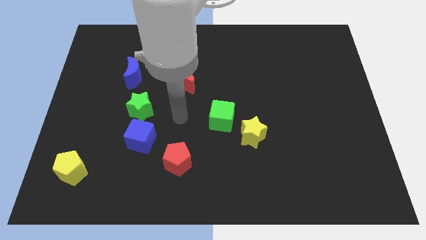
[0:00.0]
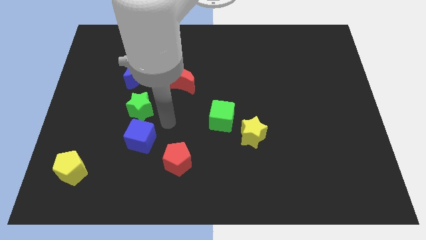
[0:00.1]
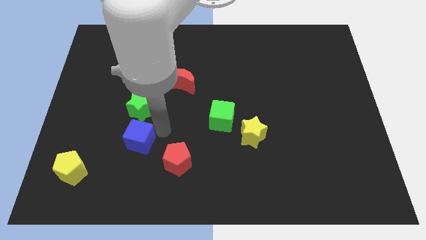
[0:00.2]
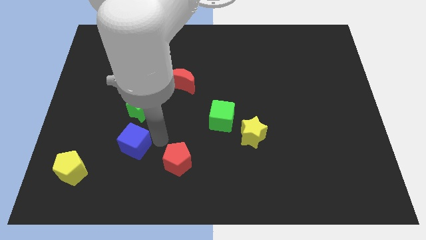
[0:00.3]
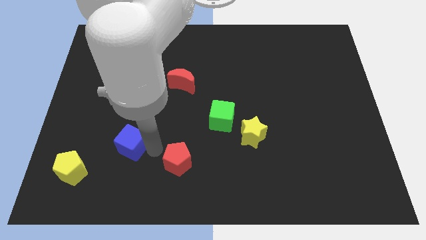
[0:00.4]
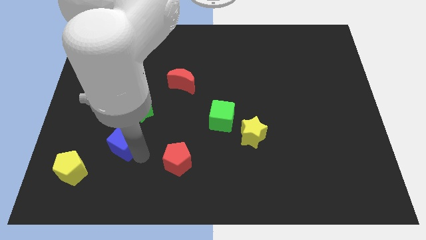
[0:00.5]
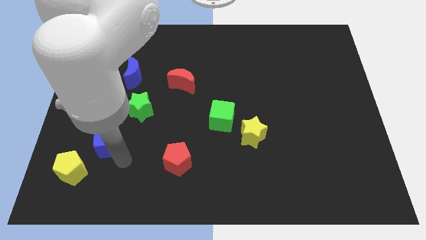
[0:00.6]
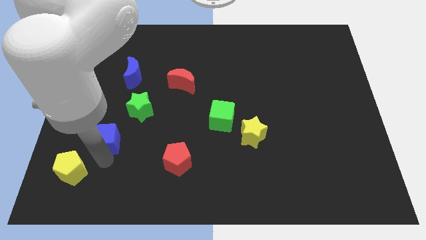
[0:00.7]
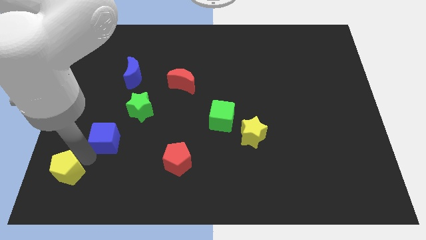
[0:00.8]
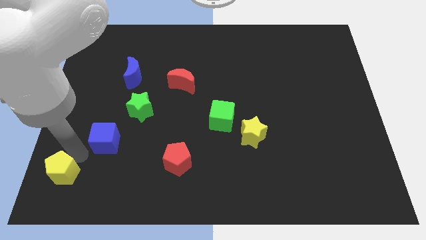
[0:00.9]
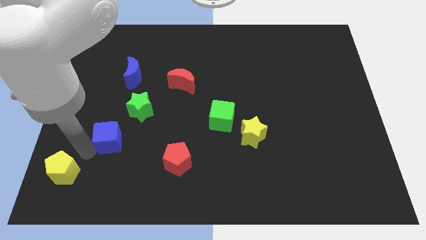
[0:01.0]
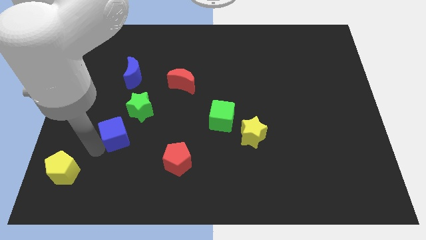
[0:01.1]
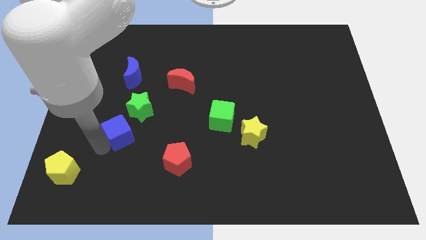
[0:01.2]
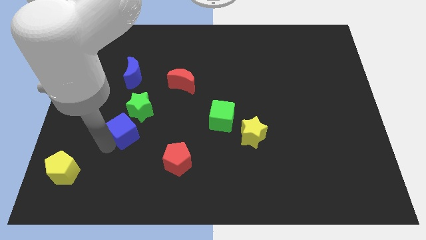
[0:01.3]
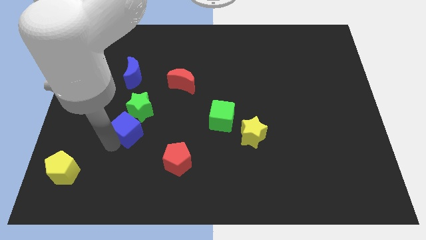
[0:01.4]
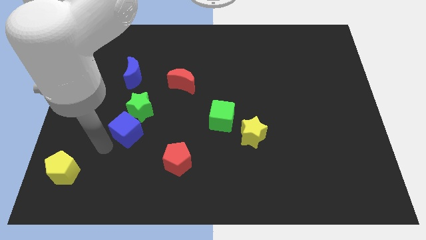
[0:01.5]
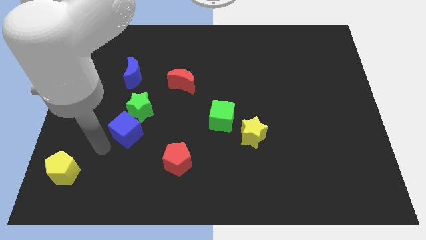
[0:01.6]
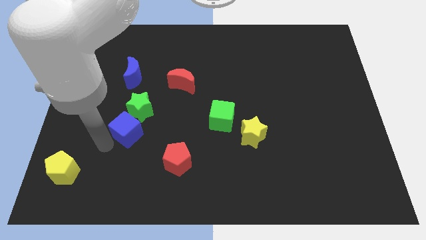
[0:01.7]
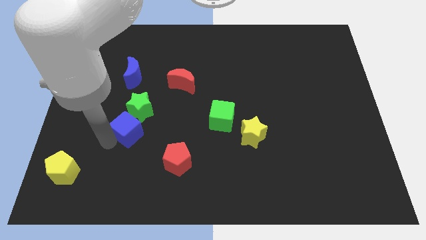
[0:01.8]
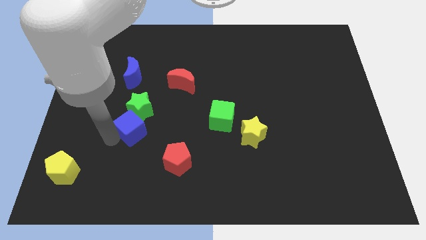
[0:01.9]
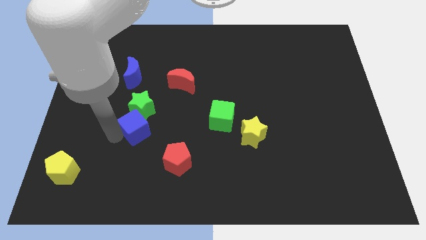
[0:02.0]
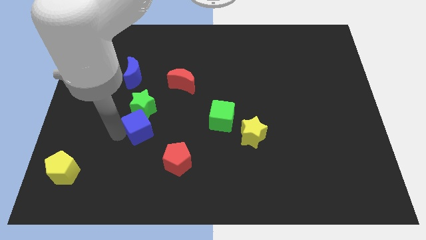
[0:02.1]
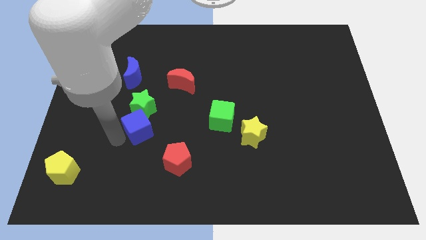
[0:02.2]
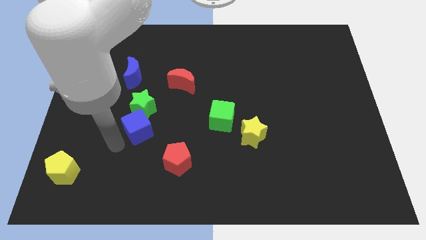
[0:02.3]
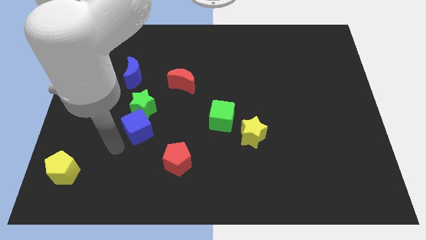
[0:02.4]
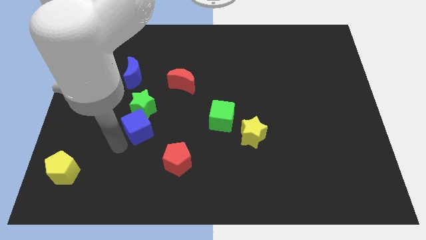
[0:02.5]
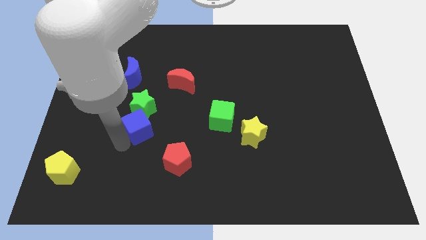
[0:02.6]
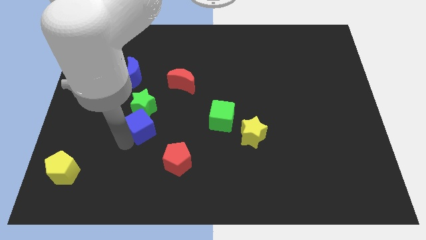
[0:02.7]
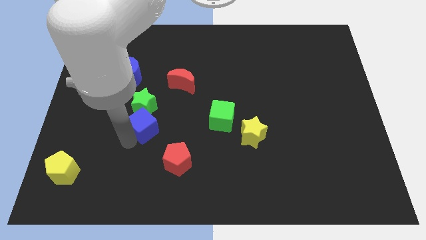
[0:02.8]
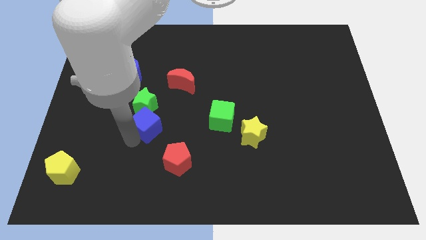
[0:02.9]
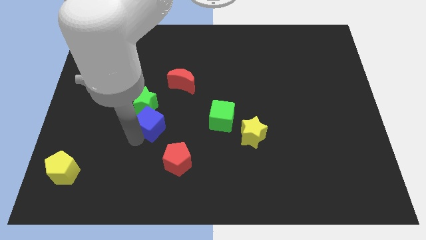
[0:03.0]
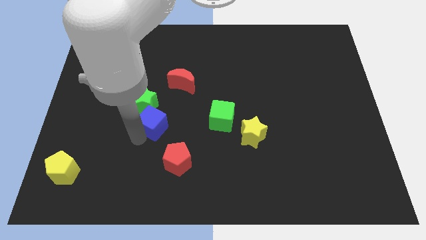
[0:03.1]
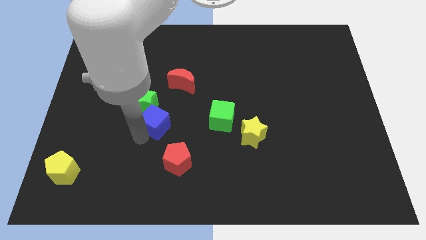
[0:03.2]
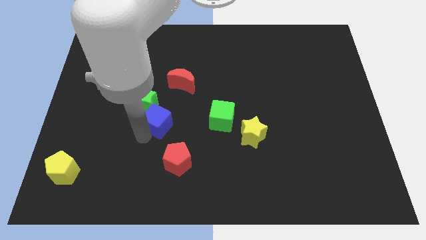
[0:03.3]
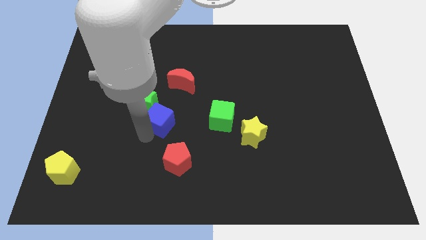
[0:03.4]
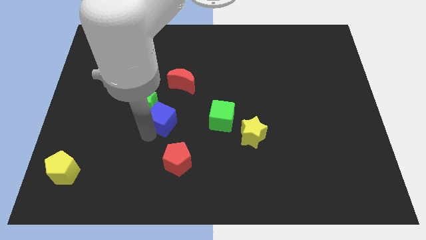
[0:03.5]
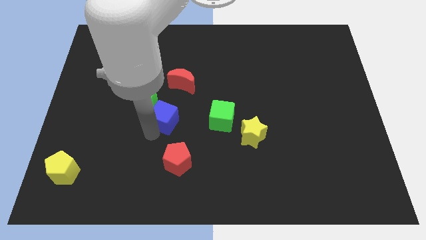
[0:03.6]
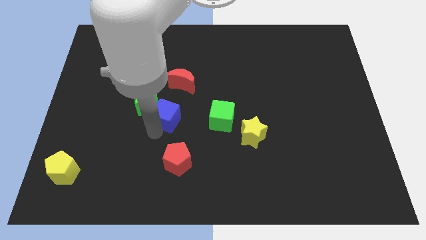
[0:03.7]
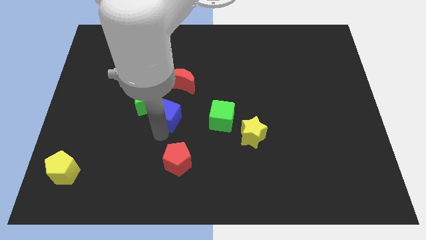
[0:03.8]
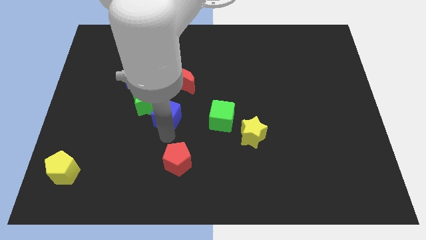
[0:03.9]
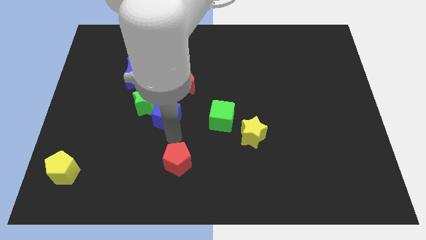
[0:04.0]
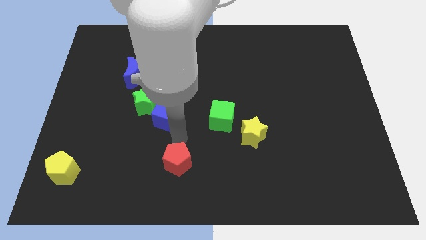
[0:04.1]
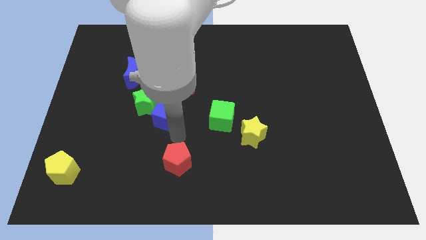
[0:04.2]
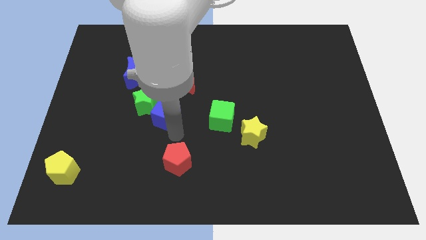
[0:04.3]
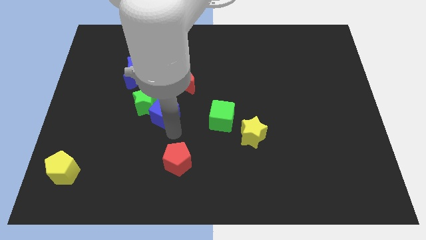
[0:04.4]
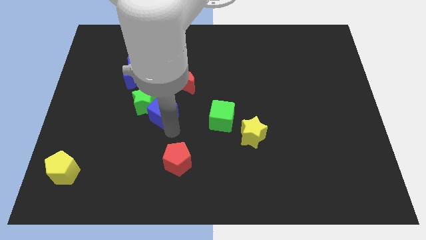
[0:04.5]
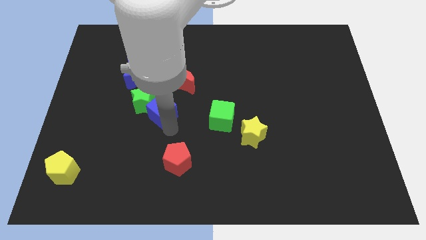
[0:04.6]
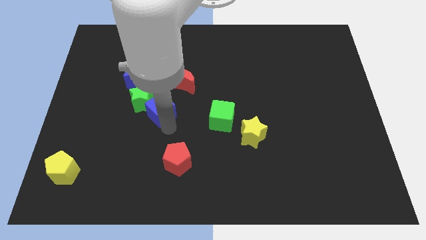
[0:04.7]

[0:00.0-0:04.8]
slightly push the blue cube up

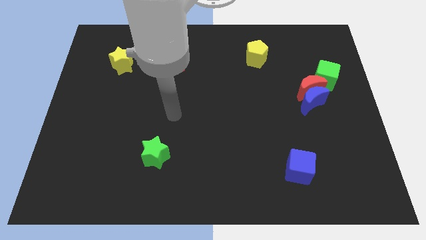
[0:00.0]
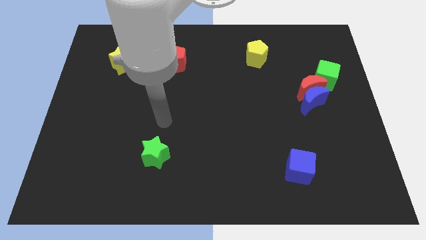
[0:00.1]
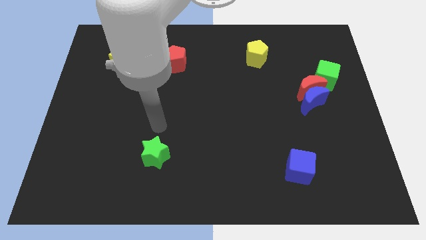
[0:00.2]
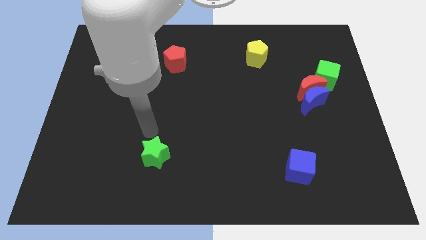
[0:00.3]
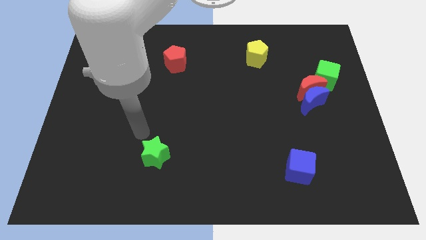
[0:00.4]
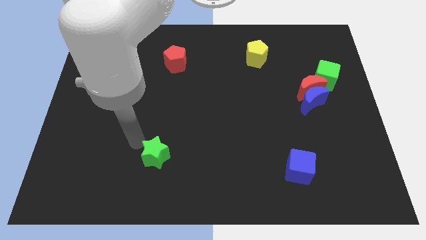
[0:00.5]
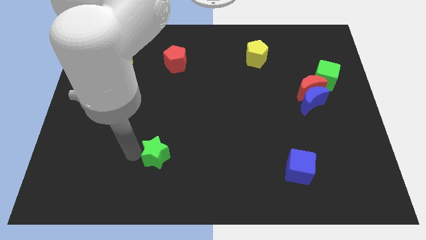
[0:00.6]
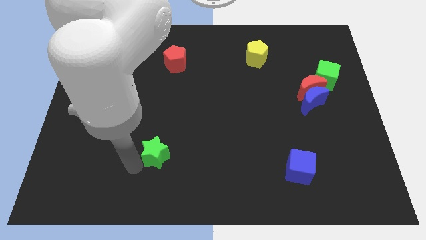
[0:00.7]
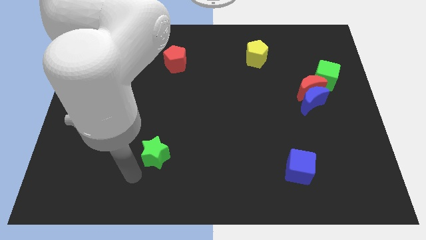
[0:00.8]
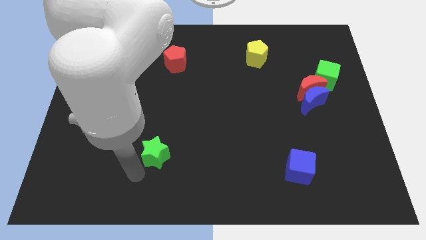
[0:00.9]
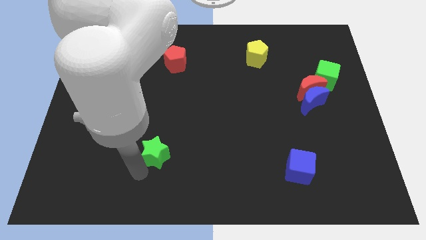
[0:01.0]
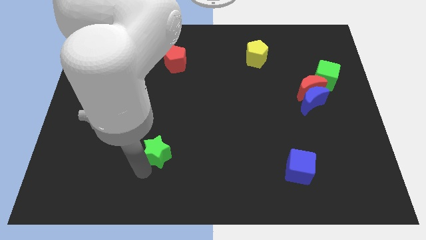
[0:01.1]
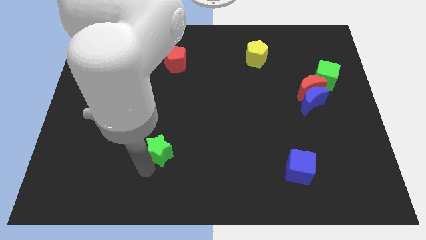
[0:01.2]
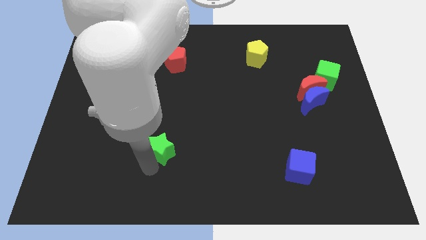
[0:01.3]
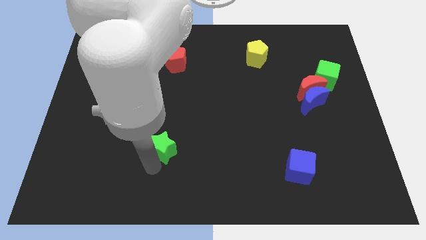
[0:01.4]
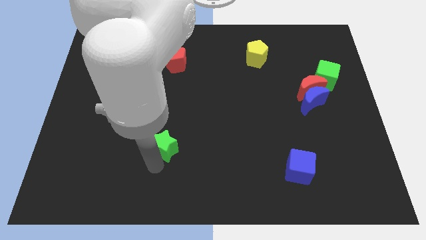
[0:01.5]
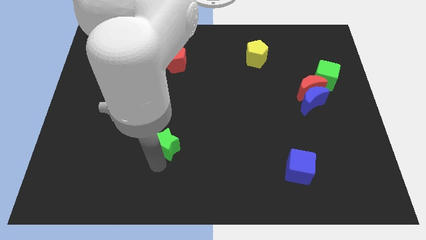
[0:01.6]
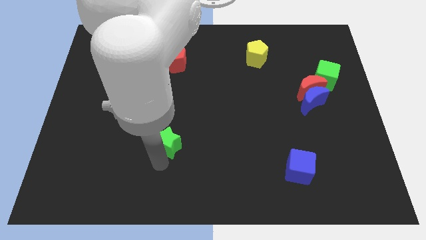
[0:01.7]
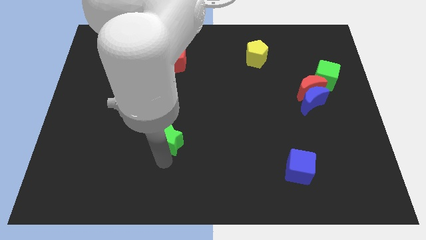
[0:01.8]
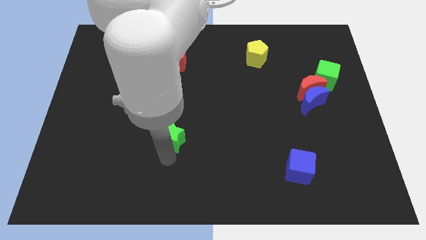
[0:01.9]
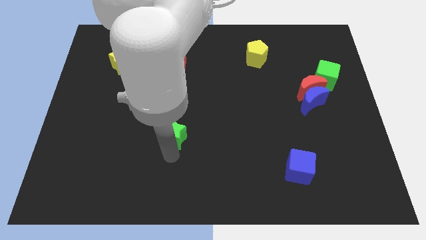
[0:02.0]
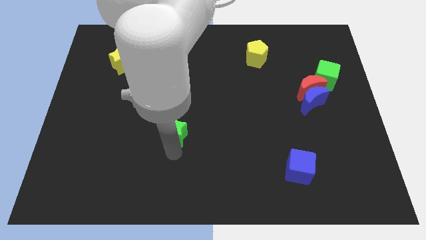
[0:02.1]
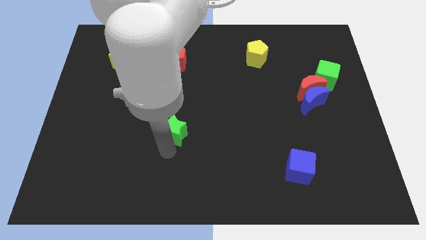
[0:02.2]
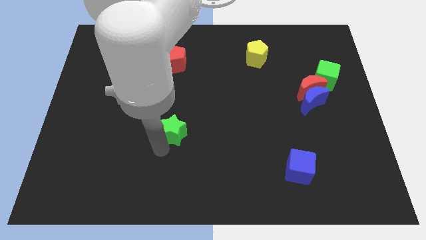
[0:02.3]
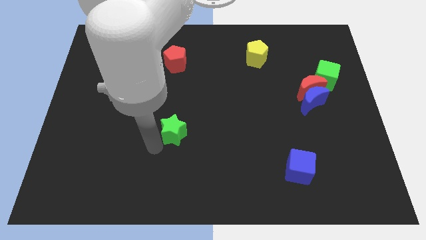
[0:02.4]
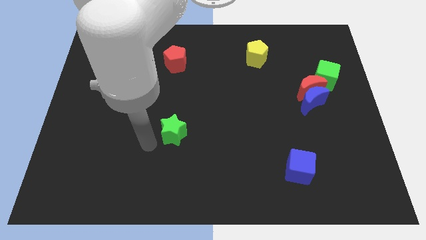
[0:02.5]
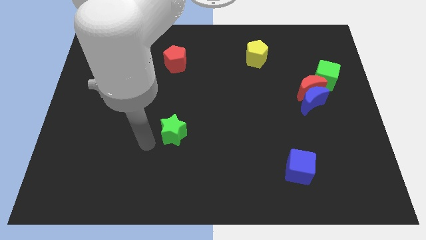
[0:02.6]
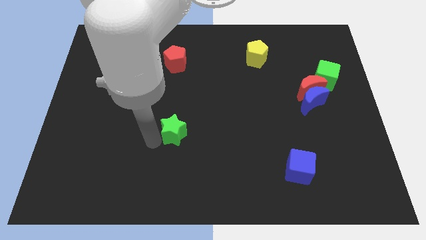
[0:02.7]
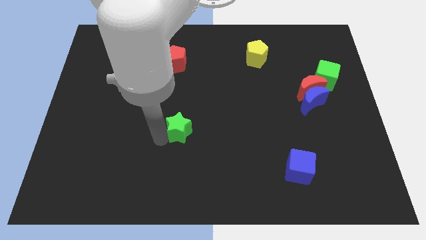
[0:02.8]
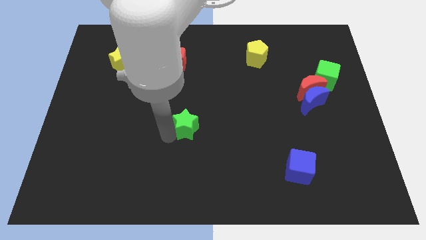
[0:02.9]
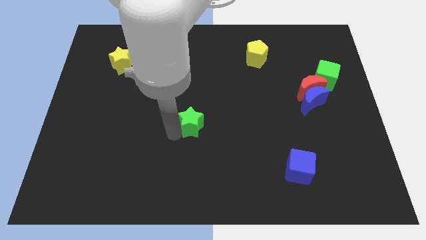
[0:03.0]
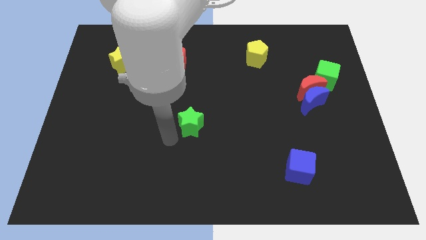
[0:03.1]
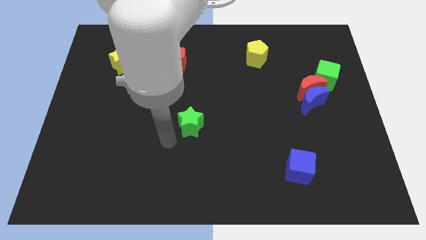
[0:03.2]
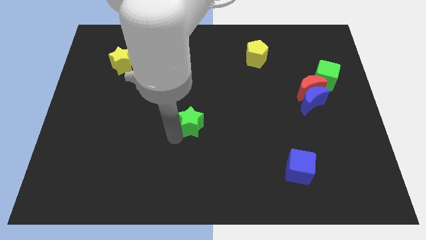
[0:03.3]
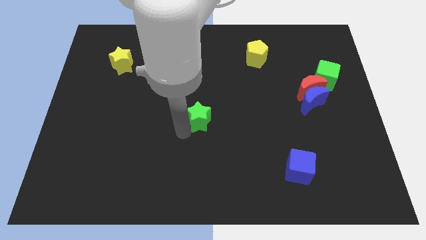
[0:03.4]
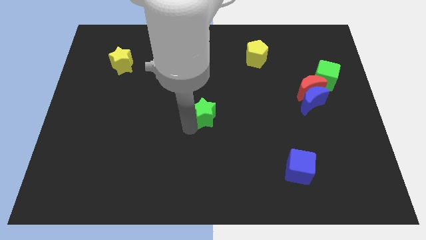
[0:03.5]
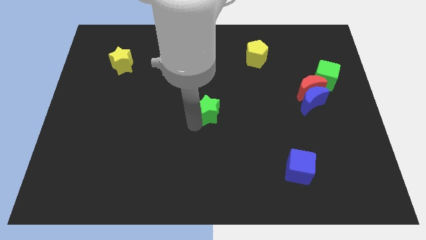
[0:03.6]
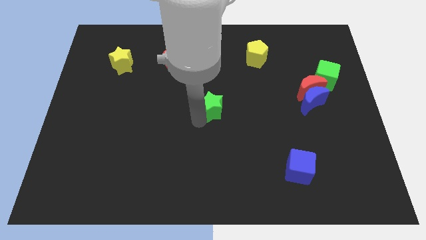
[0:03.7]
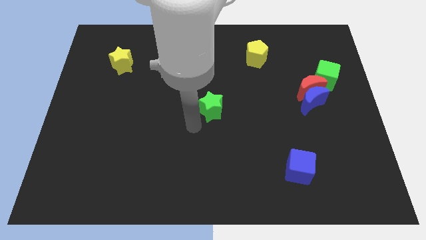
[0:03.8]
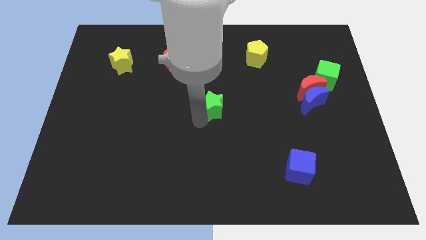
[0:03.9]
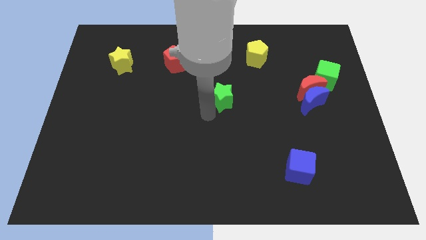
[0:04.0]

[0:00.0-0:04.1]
push the green star diagonally up and to the right
